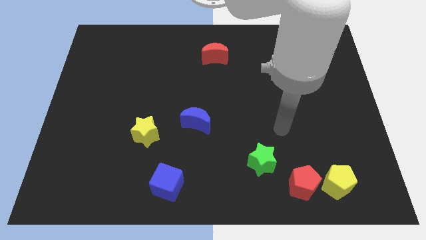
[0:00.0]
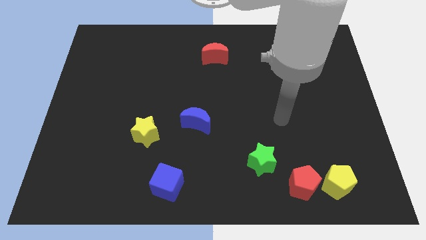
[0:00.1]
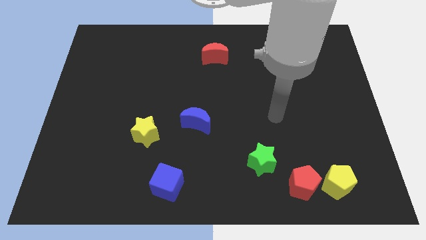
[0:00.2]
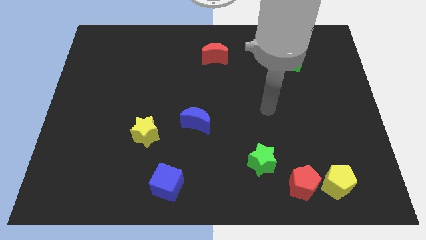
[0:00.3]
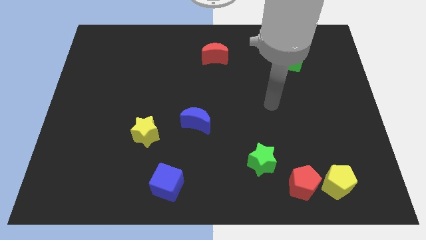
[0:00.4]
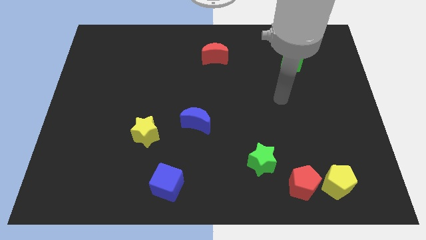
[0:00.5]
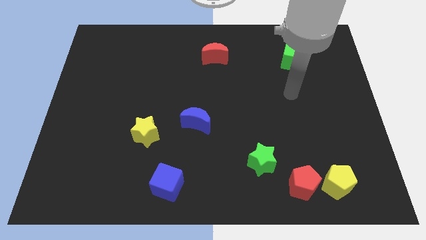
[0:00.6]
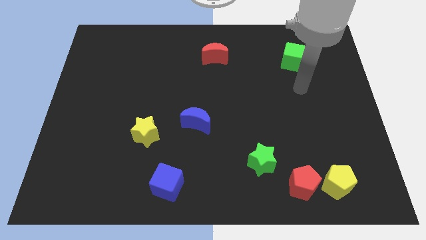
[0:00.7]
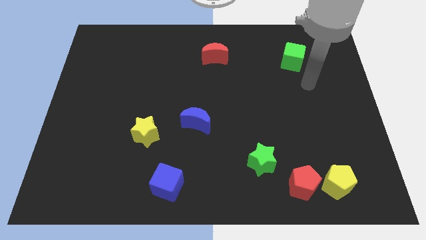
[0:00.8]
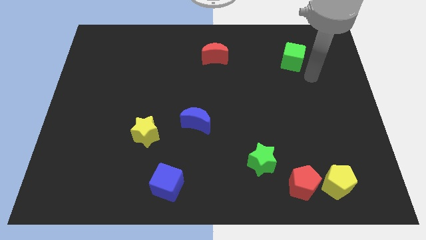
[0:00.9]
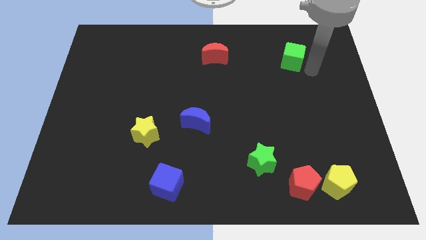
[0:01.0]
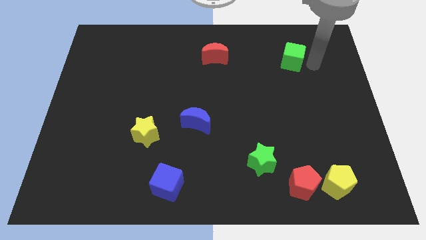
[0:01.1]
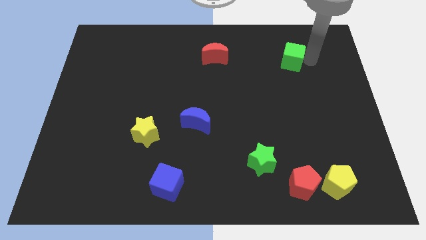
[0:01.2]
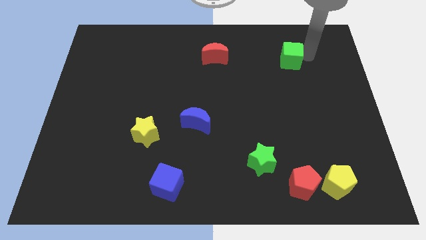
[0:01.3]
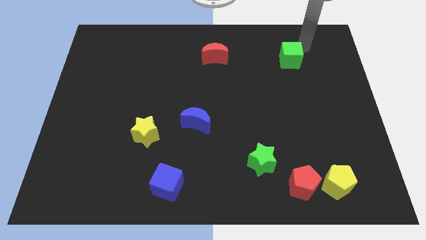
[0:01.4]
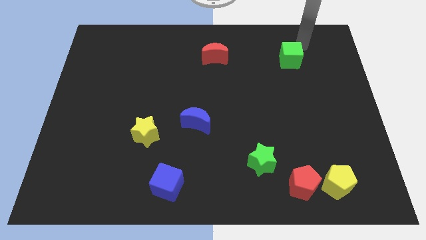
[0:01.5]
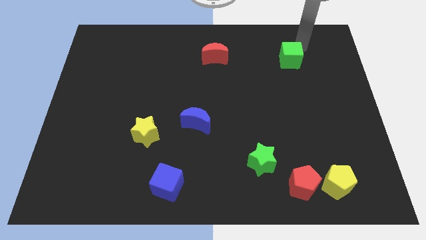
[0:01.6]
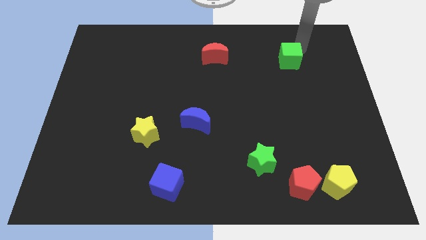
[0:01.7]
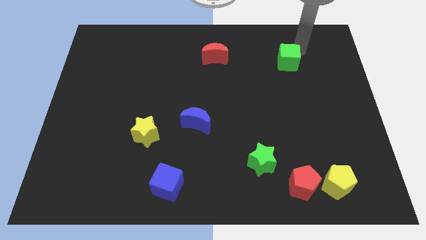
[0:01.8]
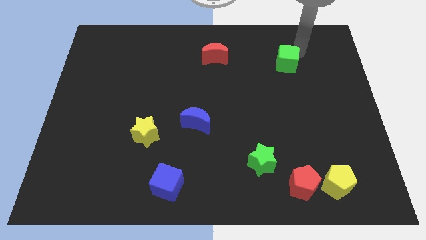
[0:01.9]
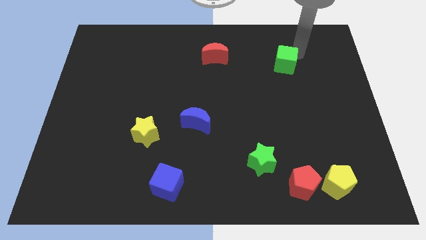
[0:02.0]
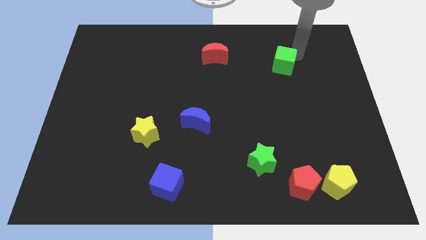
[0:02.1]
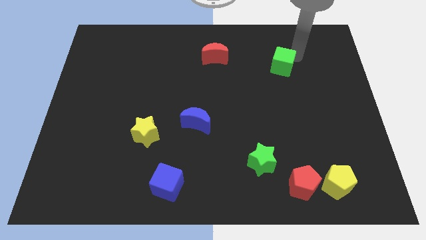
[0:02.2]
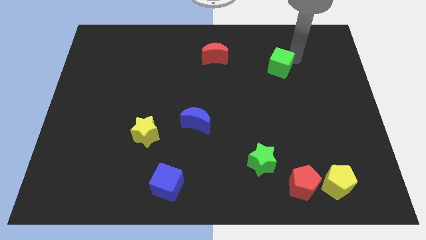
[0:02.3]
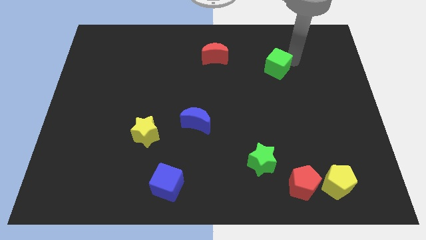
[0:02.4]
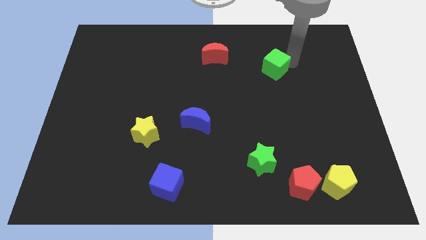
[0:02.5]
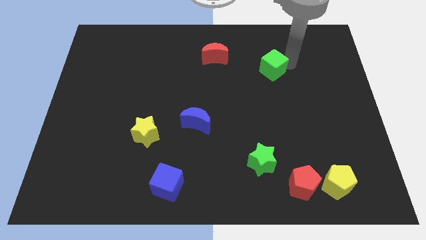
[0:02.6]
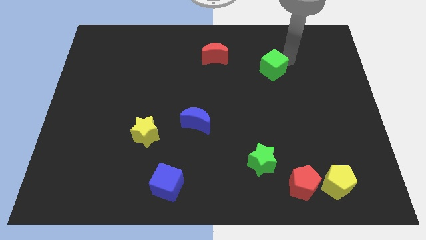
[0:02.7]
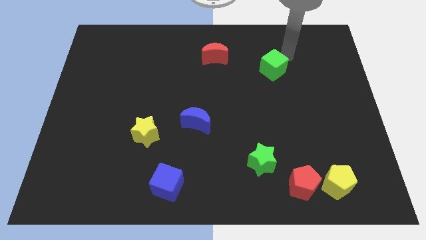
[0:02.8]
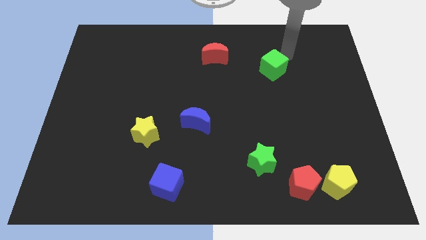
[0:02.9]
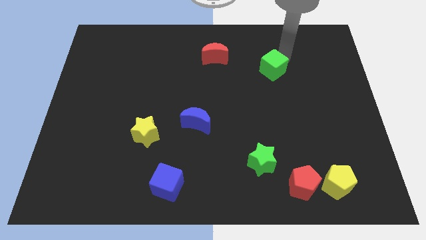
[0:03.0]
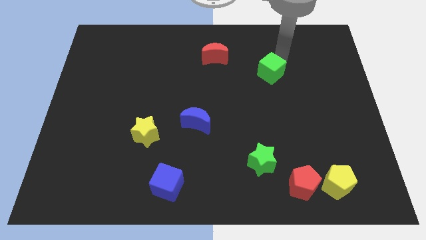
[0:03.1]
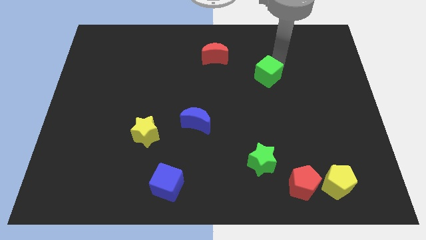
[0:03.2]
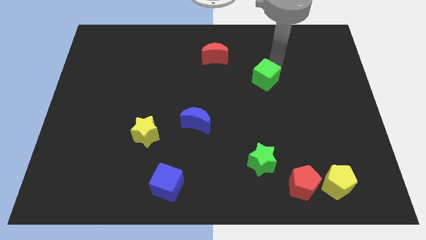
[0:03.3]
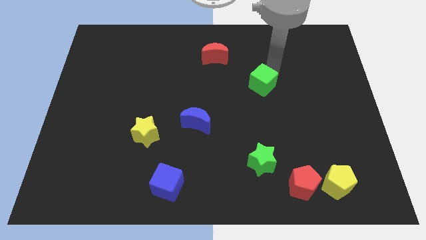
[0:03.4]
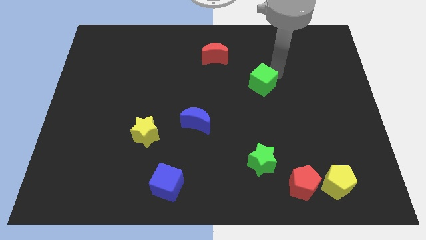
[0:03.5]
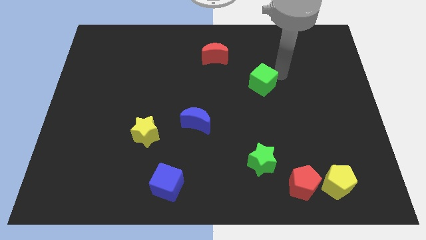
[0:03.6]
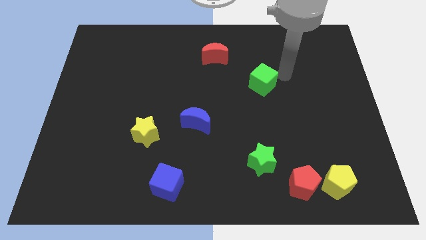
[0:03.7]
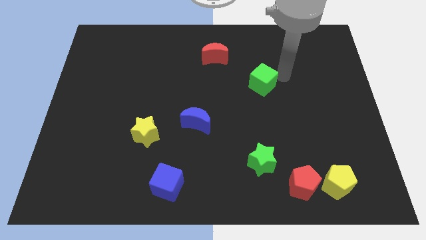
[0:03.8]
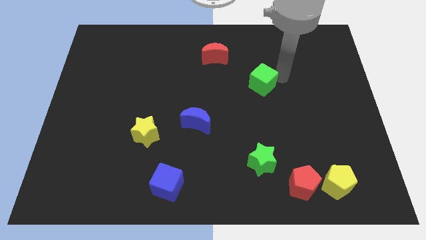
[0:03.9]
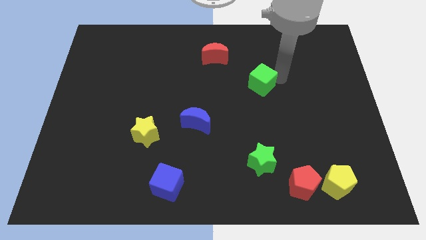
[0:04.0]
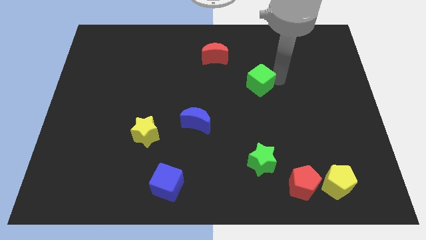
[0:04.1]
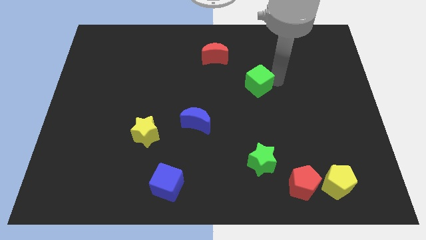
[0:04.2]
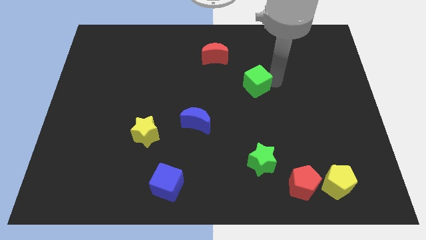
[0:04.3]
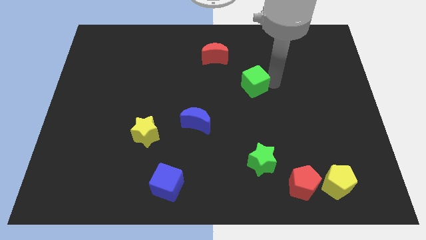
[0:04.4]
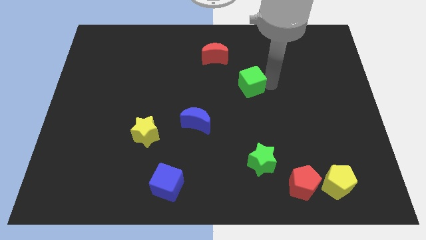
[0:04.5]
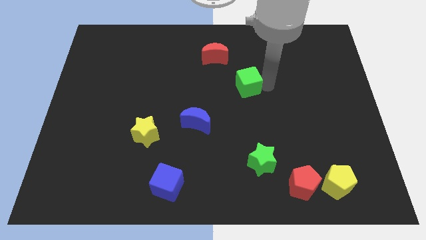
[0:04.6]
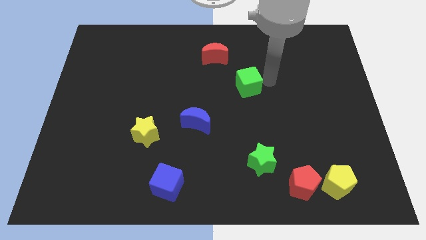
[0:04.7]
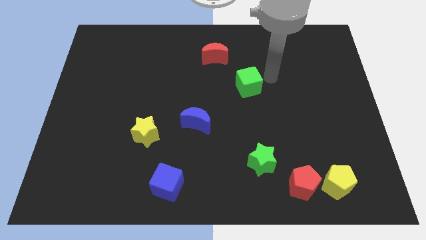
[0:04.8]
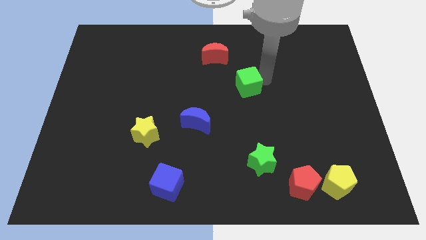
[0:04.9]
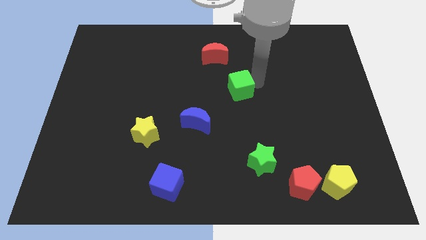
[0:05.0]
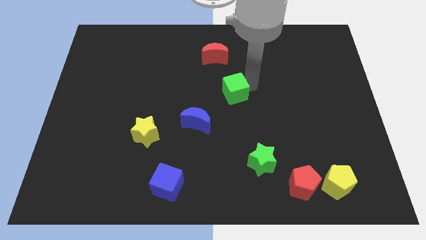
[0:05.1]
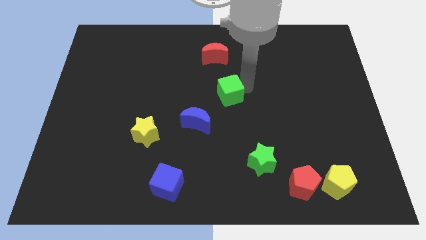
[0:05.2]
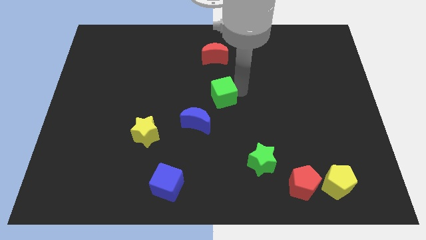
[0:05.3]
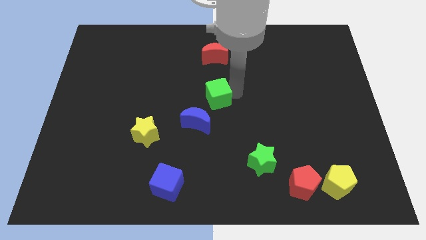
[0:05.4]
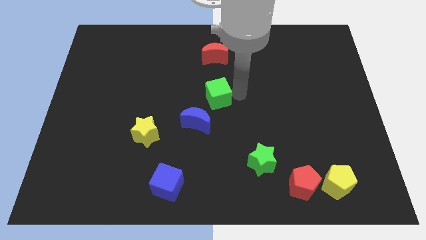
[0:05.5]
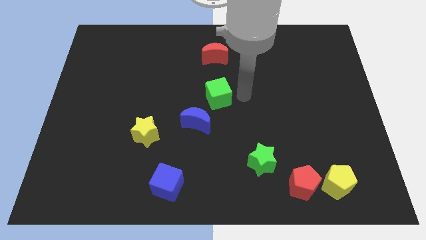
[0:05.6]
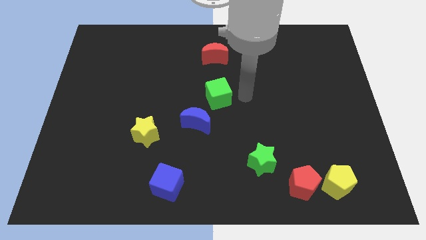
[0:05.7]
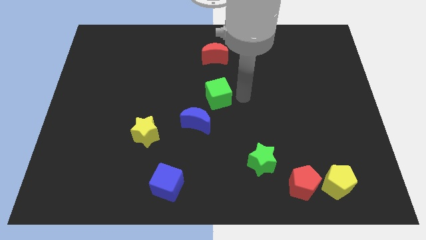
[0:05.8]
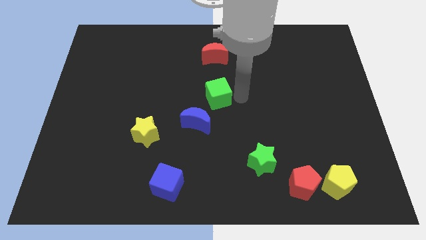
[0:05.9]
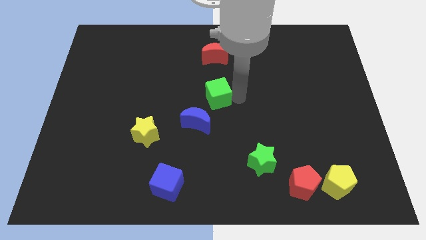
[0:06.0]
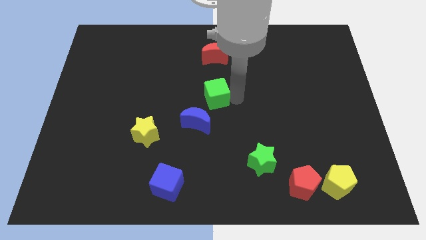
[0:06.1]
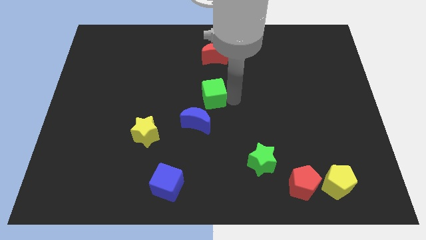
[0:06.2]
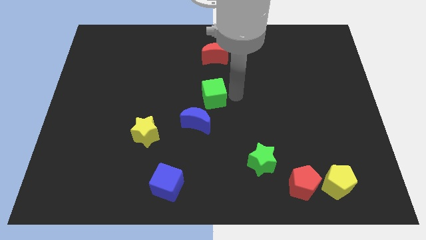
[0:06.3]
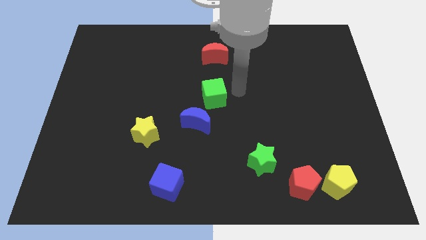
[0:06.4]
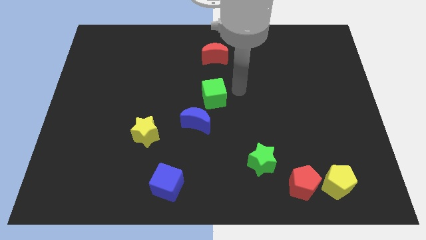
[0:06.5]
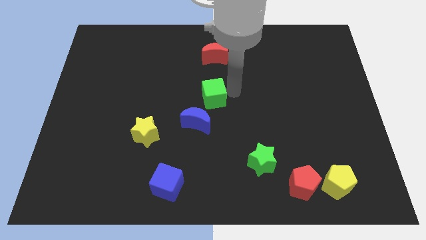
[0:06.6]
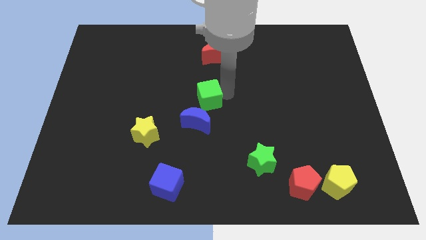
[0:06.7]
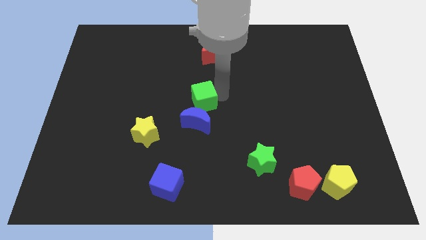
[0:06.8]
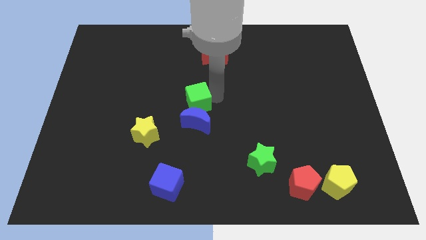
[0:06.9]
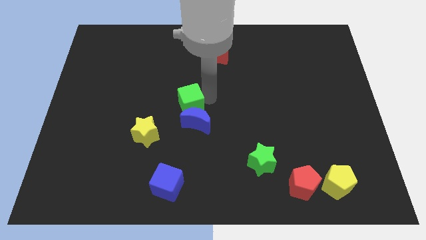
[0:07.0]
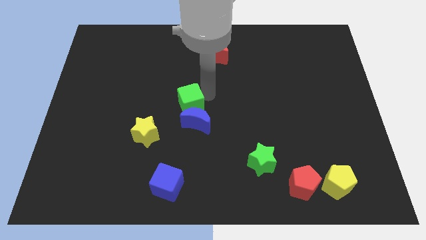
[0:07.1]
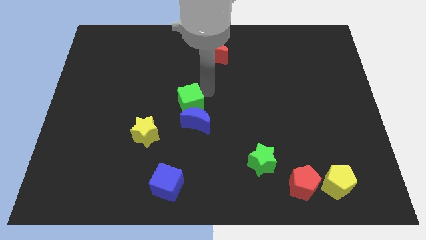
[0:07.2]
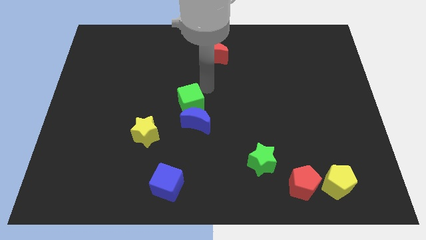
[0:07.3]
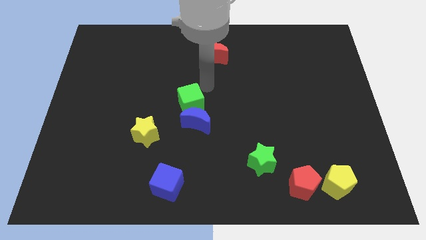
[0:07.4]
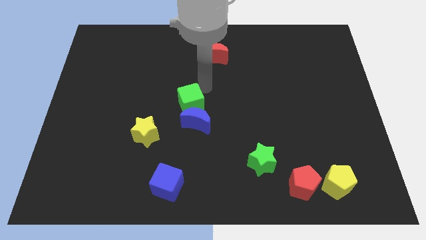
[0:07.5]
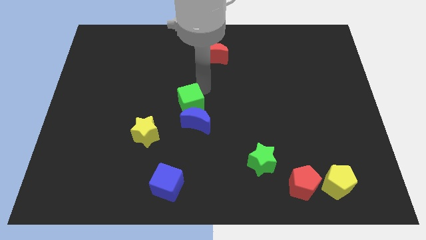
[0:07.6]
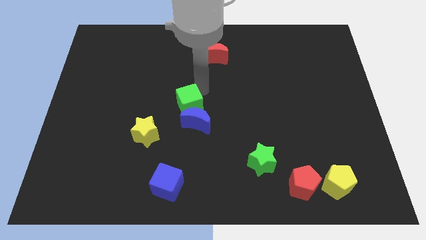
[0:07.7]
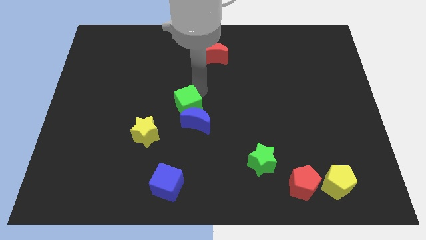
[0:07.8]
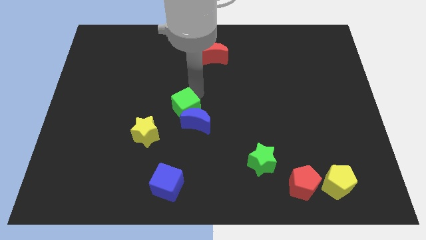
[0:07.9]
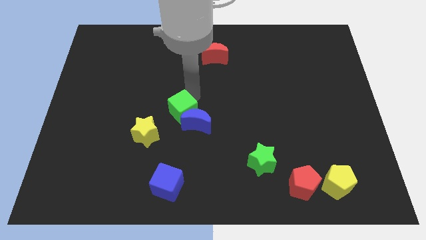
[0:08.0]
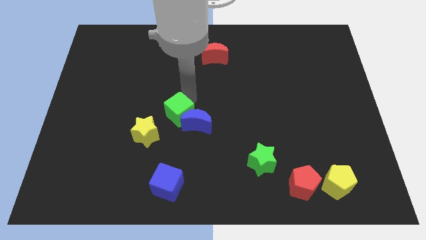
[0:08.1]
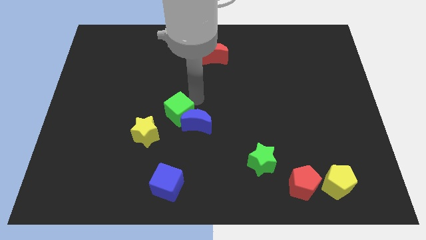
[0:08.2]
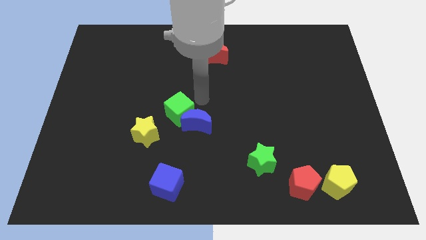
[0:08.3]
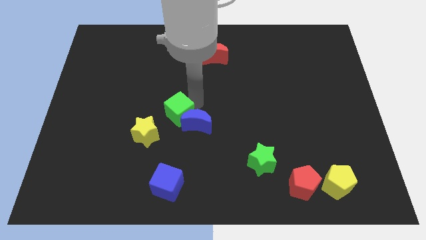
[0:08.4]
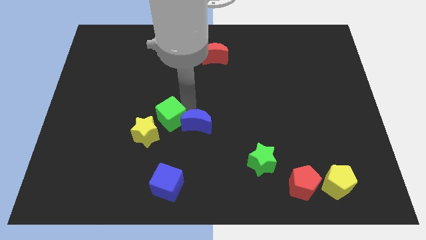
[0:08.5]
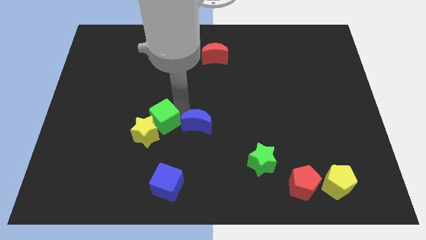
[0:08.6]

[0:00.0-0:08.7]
put the green cube towards the yellow star
